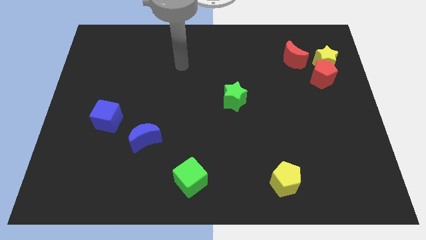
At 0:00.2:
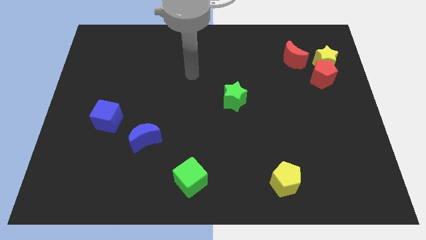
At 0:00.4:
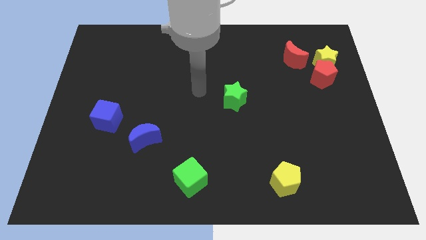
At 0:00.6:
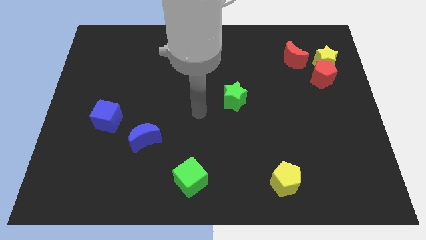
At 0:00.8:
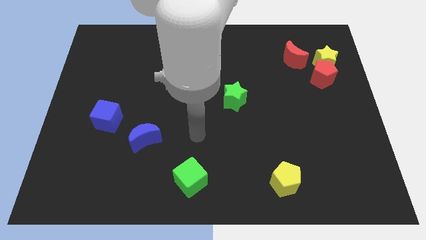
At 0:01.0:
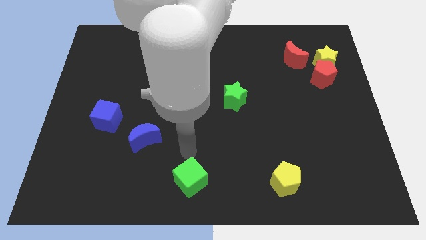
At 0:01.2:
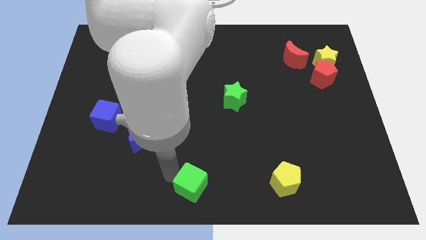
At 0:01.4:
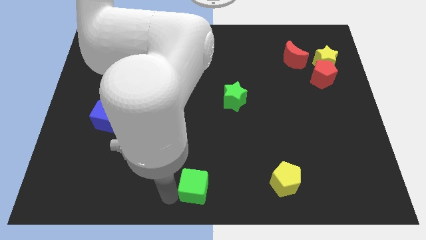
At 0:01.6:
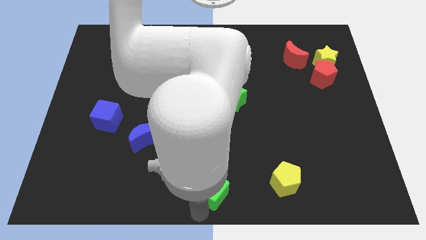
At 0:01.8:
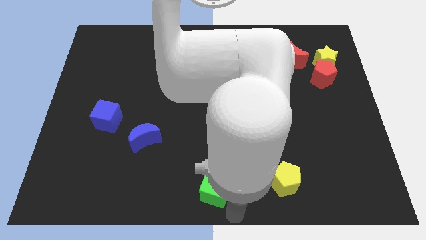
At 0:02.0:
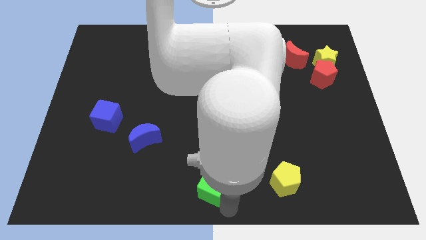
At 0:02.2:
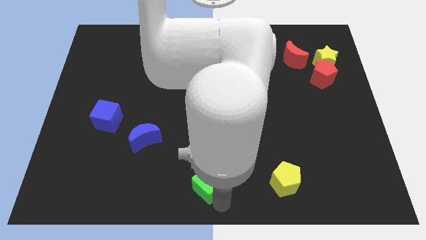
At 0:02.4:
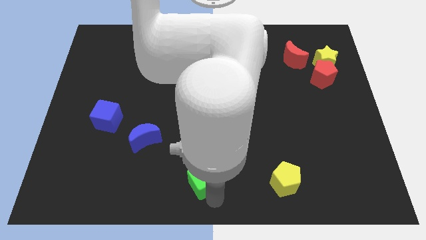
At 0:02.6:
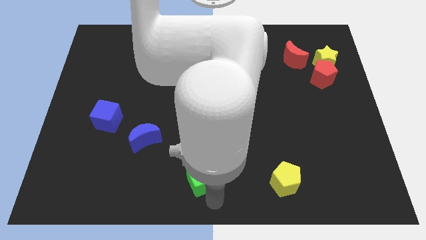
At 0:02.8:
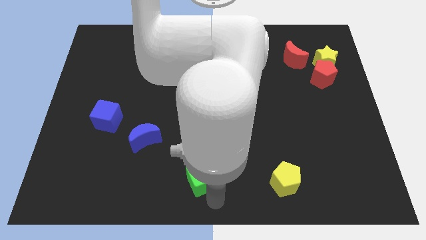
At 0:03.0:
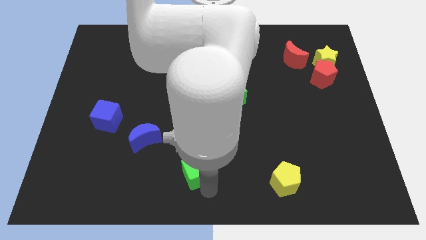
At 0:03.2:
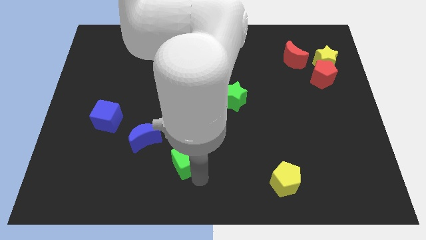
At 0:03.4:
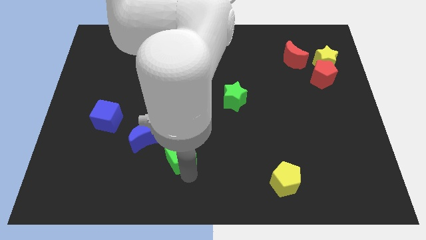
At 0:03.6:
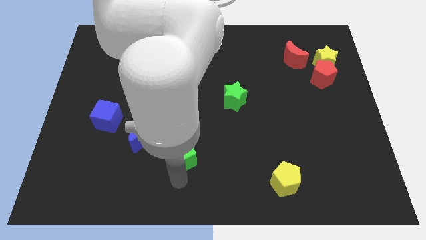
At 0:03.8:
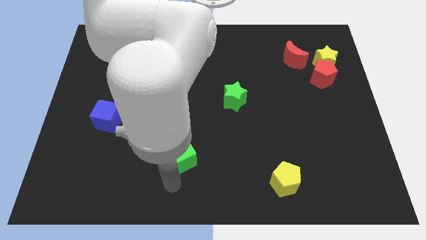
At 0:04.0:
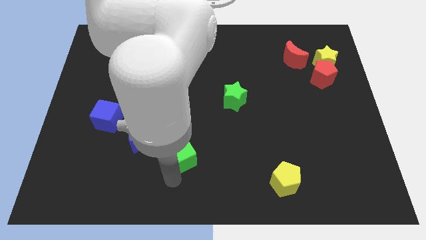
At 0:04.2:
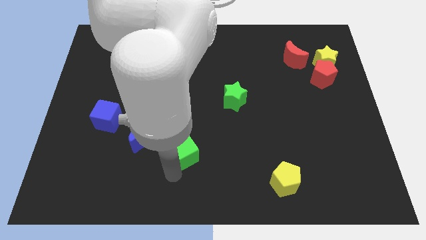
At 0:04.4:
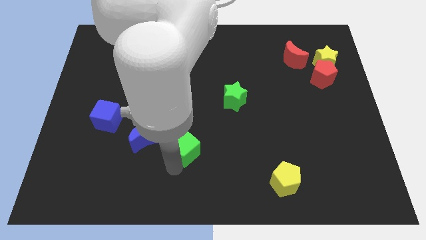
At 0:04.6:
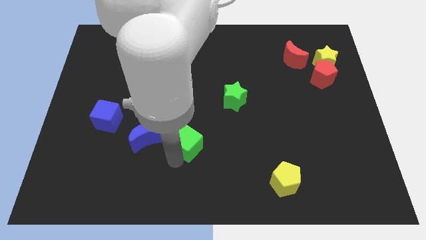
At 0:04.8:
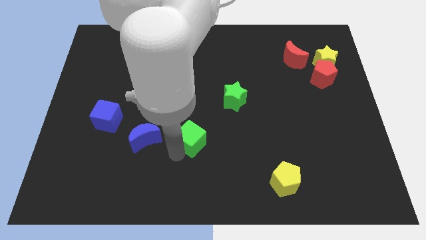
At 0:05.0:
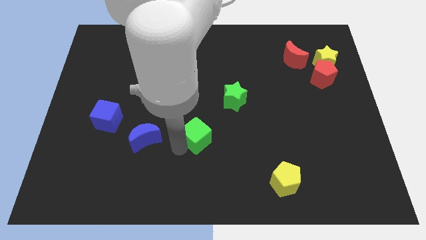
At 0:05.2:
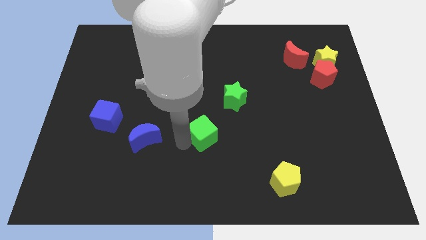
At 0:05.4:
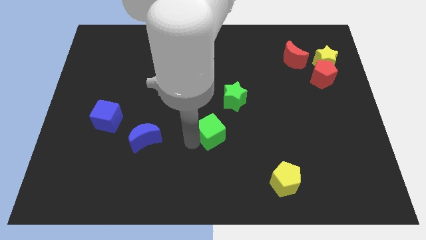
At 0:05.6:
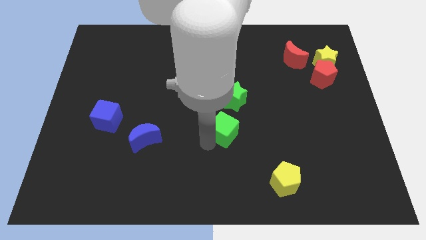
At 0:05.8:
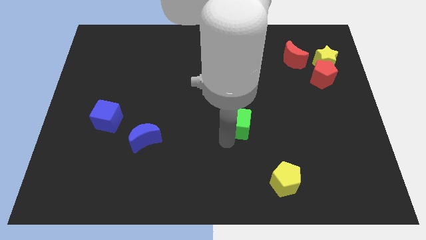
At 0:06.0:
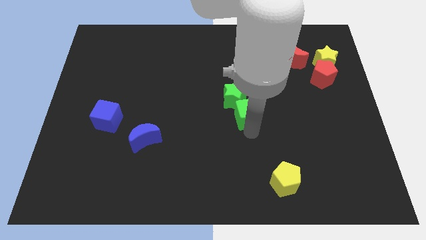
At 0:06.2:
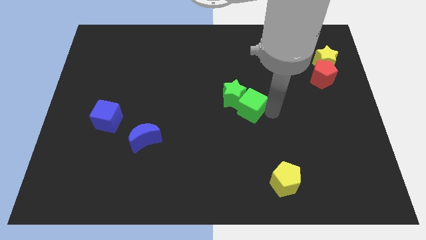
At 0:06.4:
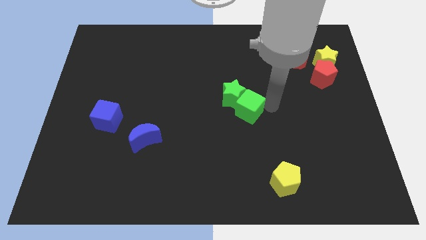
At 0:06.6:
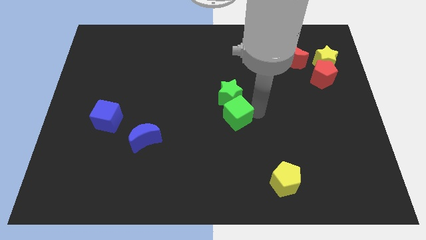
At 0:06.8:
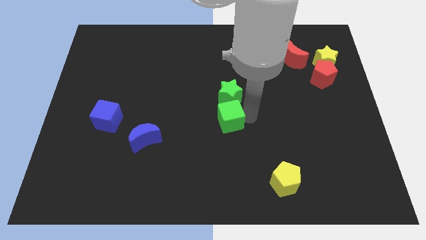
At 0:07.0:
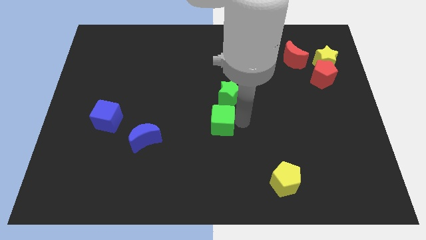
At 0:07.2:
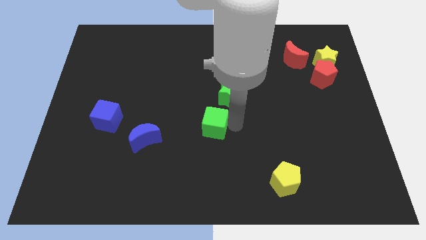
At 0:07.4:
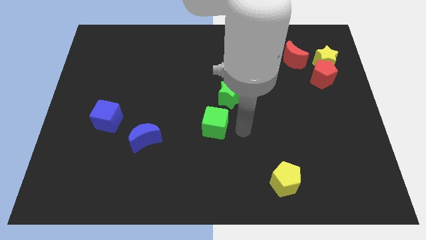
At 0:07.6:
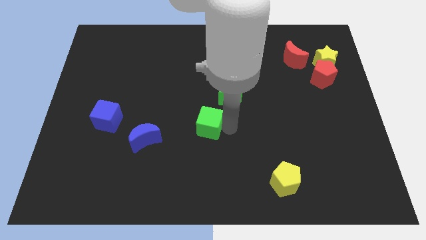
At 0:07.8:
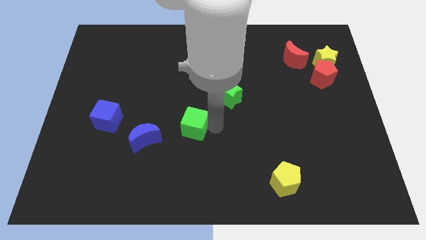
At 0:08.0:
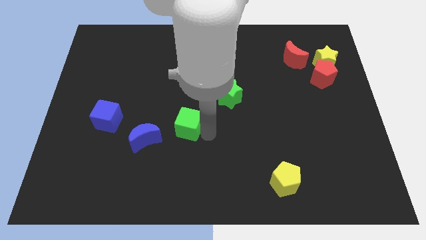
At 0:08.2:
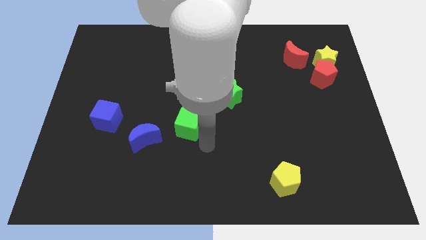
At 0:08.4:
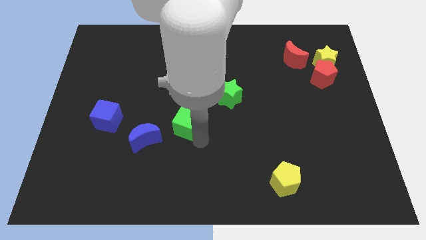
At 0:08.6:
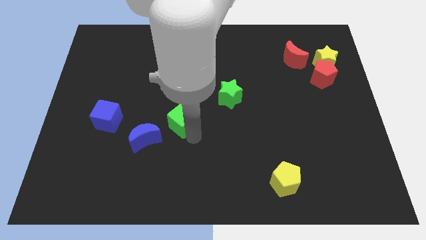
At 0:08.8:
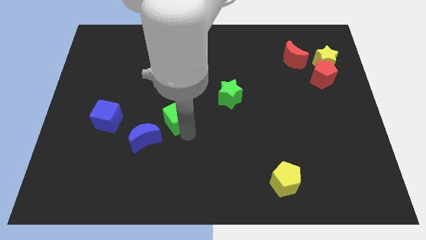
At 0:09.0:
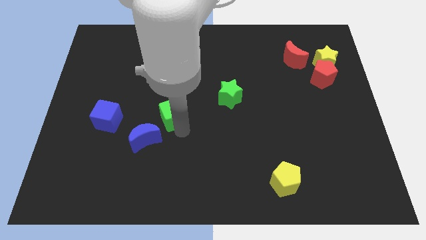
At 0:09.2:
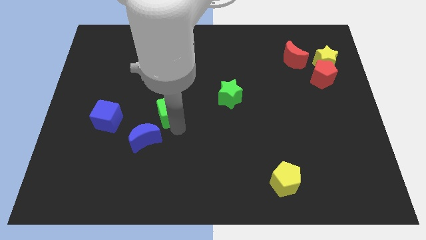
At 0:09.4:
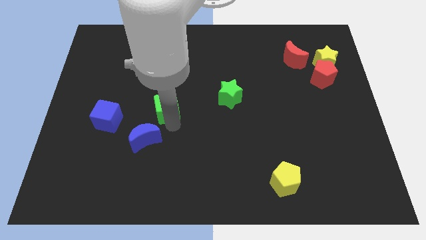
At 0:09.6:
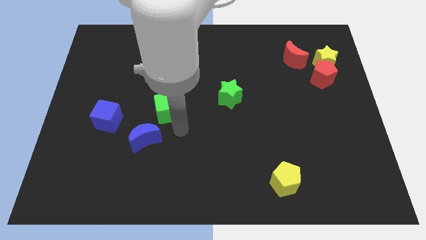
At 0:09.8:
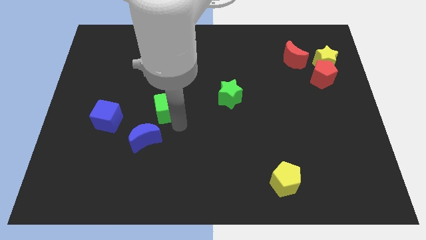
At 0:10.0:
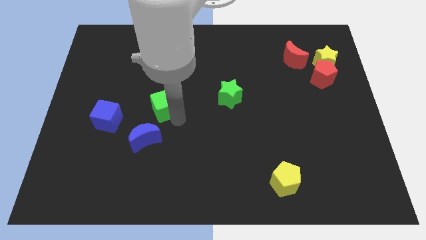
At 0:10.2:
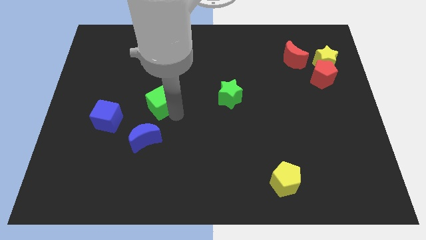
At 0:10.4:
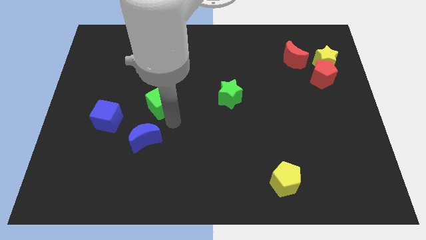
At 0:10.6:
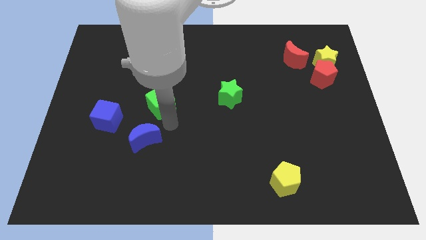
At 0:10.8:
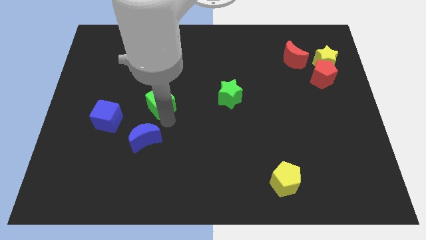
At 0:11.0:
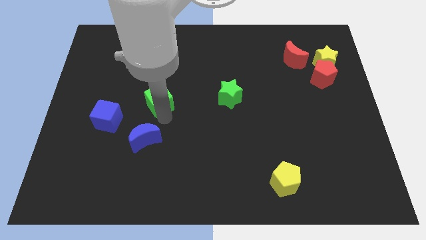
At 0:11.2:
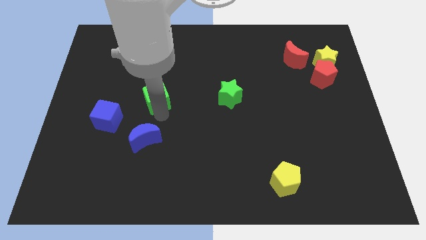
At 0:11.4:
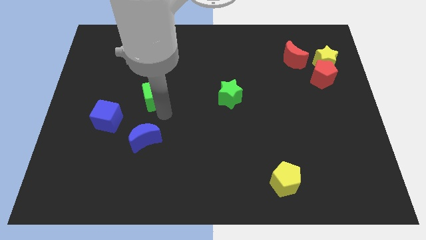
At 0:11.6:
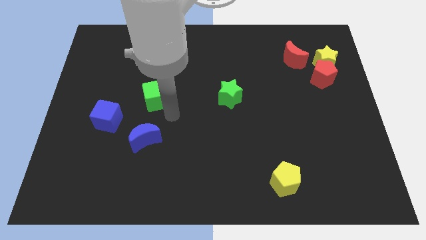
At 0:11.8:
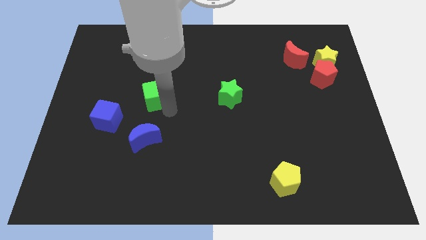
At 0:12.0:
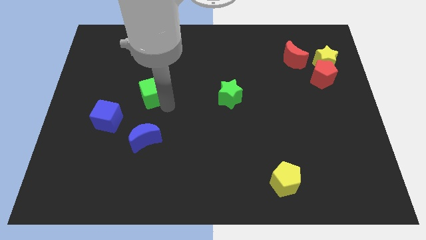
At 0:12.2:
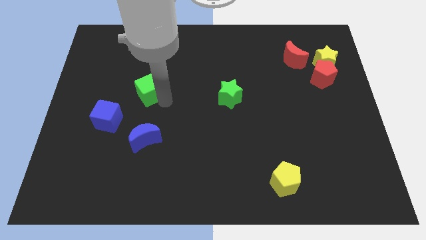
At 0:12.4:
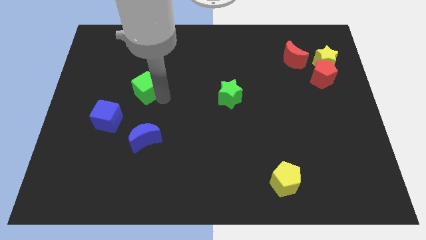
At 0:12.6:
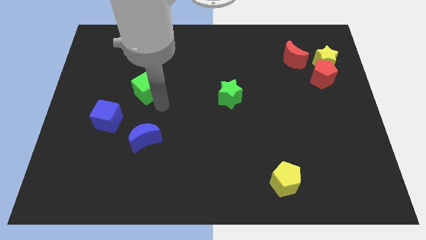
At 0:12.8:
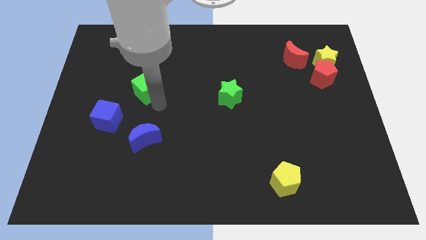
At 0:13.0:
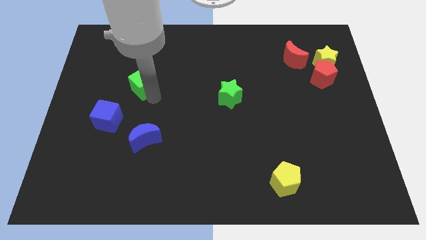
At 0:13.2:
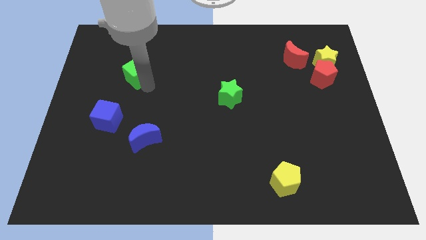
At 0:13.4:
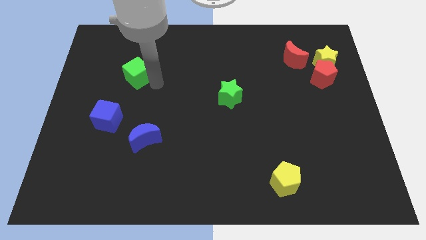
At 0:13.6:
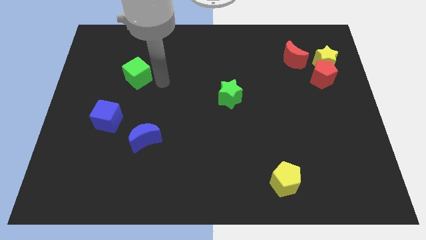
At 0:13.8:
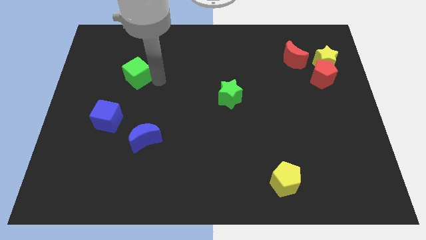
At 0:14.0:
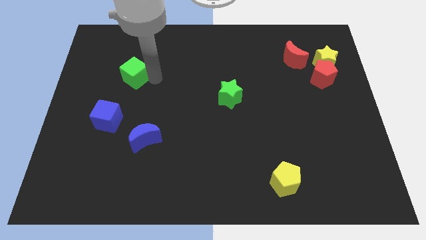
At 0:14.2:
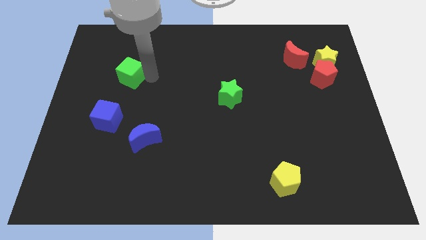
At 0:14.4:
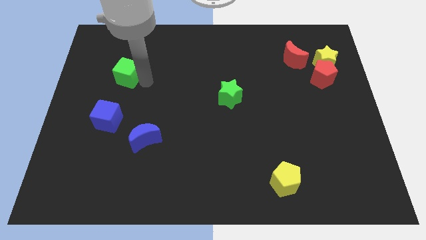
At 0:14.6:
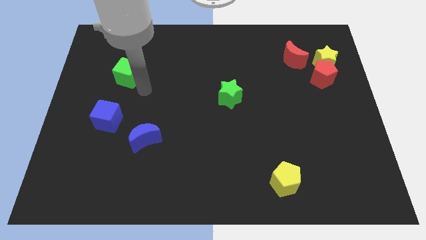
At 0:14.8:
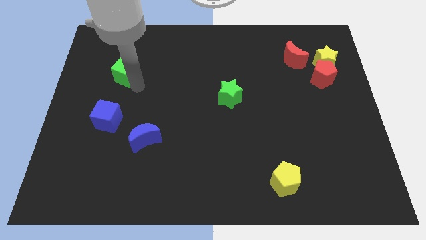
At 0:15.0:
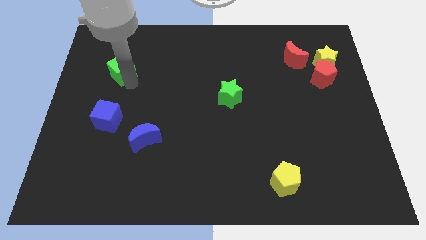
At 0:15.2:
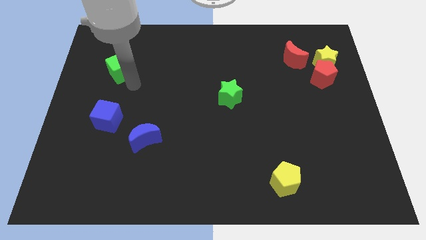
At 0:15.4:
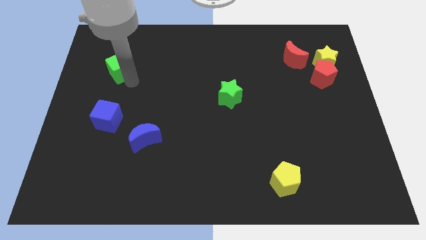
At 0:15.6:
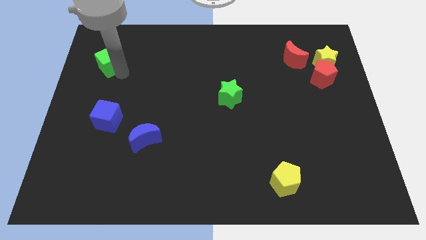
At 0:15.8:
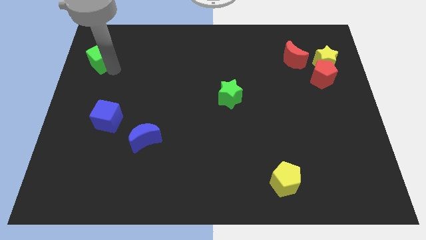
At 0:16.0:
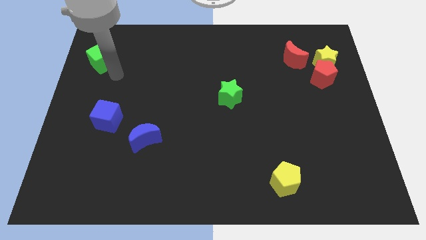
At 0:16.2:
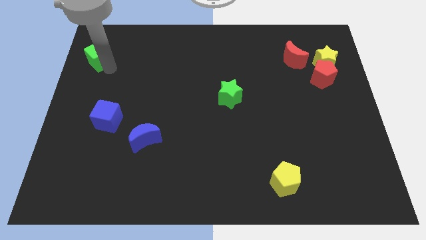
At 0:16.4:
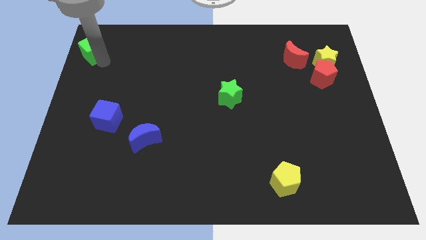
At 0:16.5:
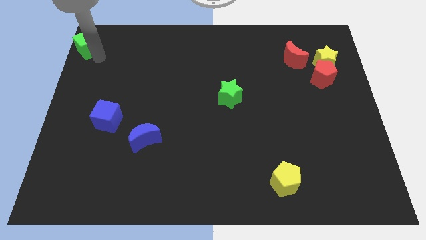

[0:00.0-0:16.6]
slide the green cube to the top left
